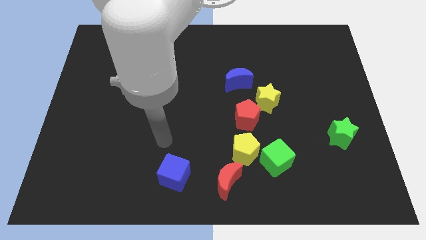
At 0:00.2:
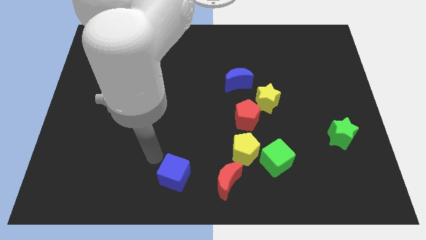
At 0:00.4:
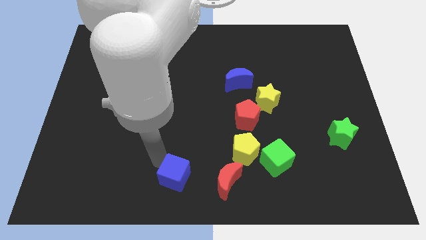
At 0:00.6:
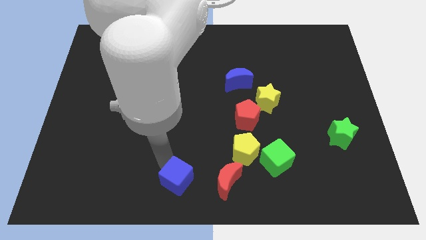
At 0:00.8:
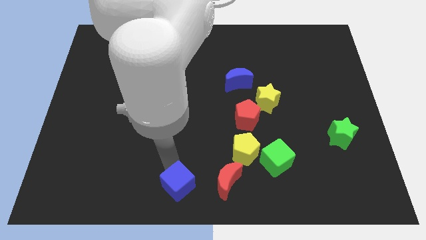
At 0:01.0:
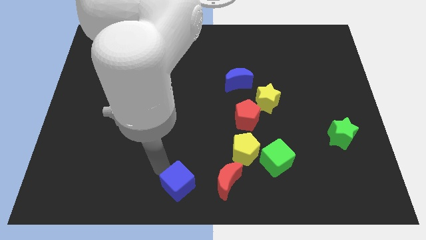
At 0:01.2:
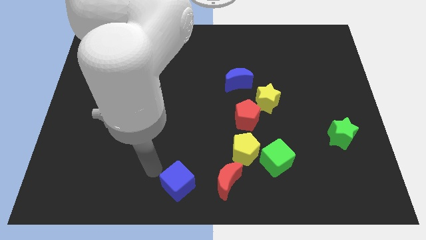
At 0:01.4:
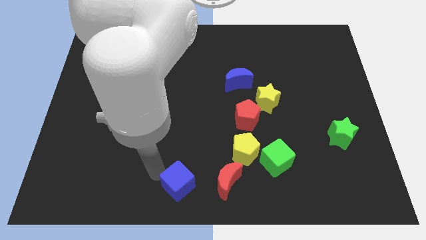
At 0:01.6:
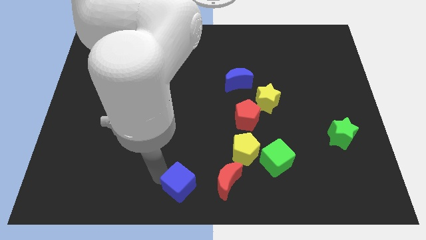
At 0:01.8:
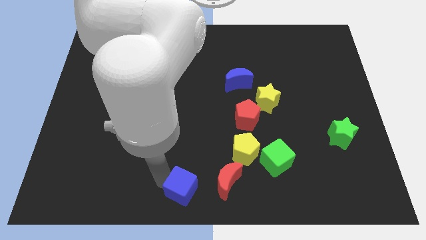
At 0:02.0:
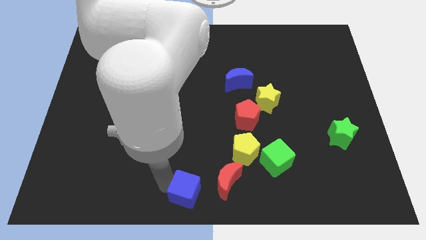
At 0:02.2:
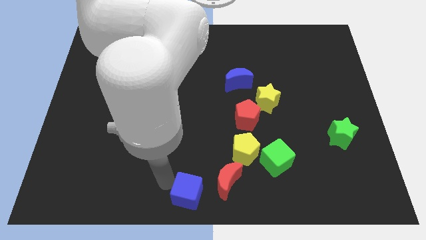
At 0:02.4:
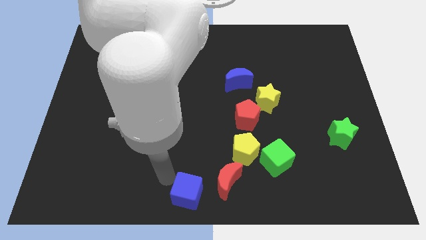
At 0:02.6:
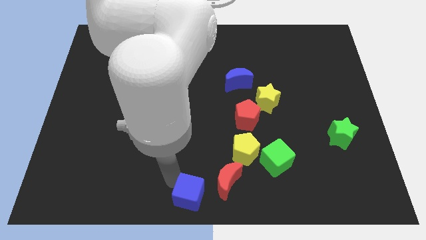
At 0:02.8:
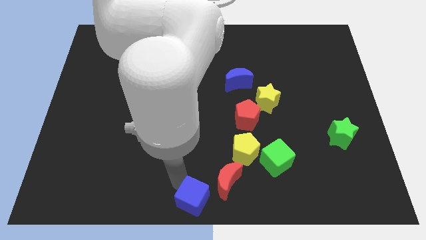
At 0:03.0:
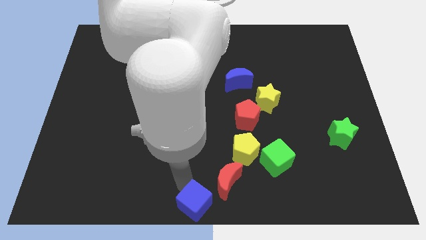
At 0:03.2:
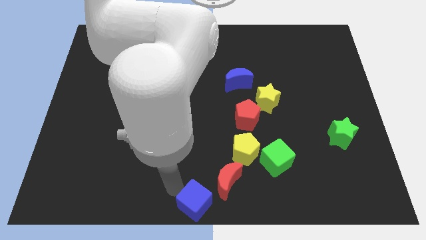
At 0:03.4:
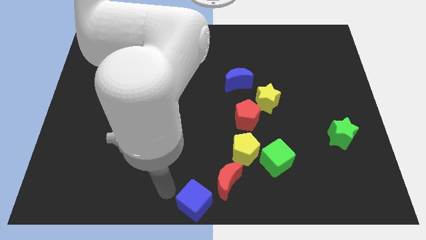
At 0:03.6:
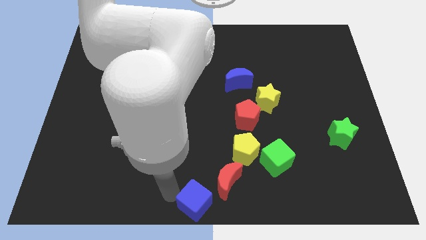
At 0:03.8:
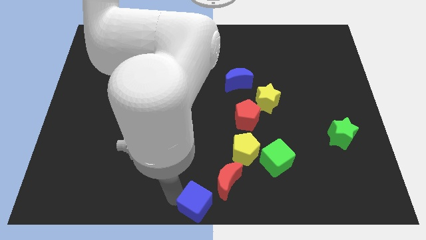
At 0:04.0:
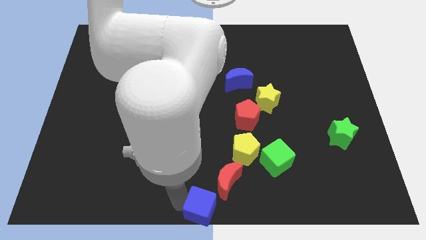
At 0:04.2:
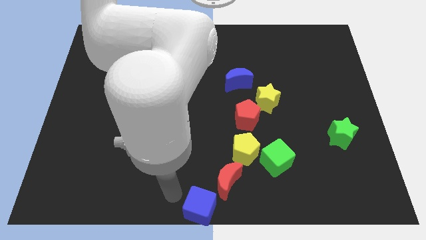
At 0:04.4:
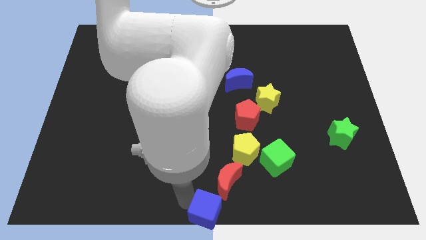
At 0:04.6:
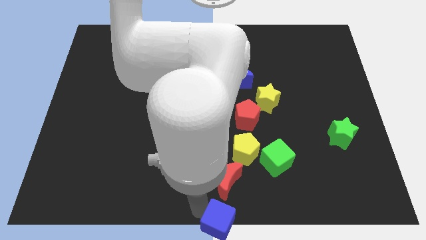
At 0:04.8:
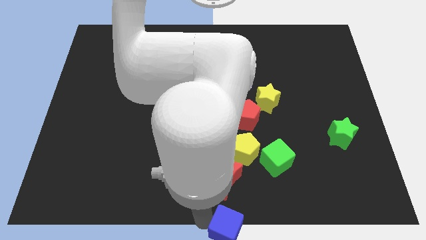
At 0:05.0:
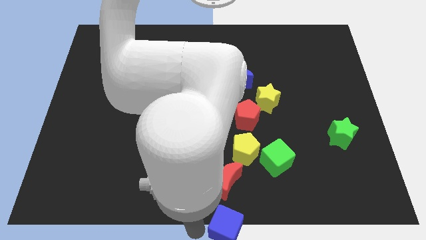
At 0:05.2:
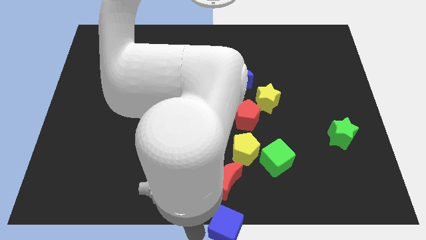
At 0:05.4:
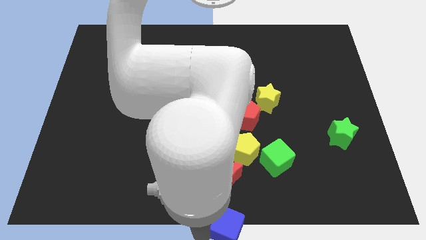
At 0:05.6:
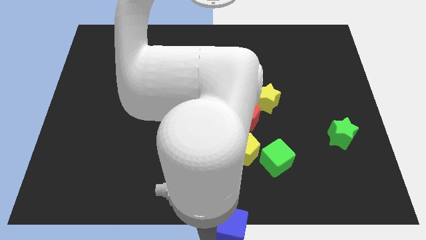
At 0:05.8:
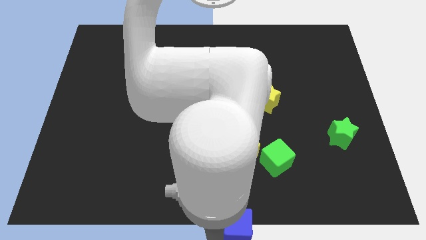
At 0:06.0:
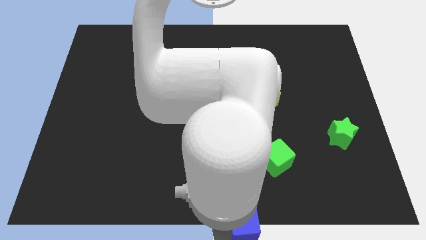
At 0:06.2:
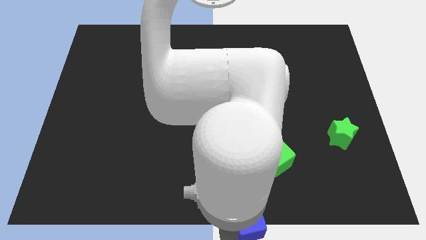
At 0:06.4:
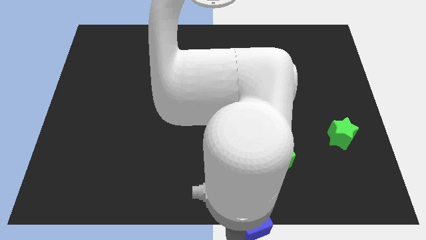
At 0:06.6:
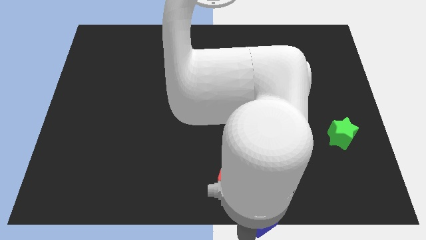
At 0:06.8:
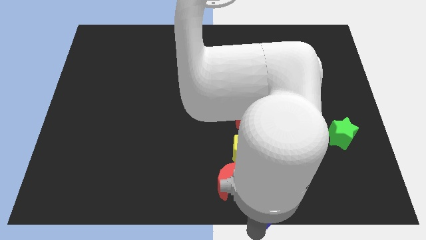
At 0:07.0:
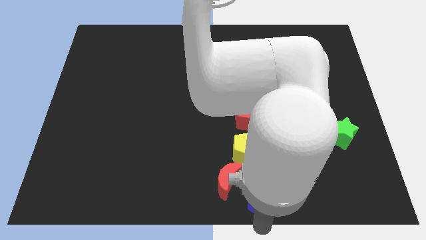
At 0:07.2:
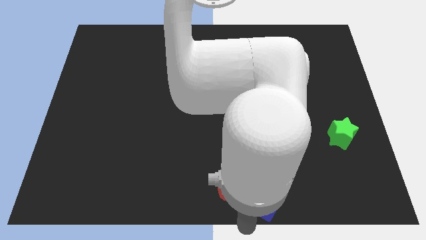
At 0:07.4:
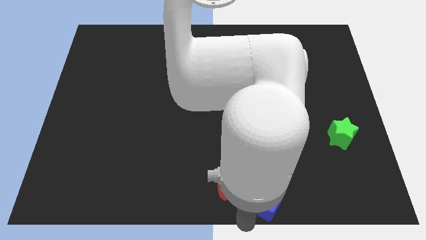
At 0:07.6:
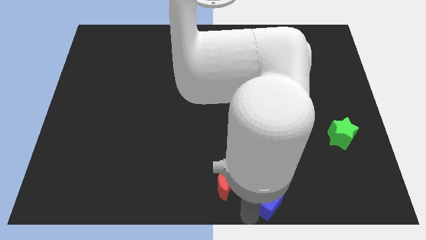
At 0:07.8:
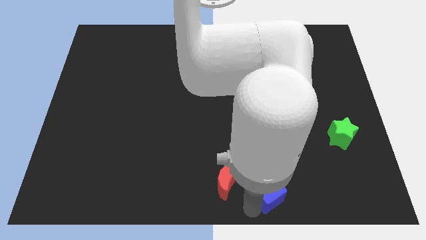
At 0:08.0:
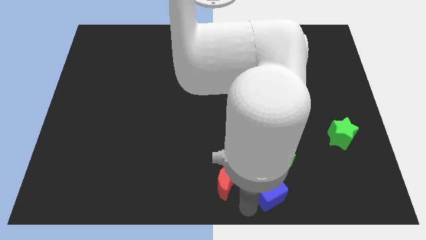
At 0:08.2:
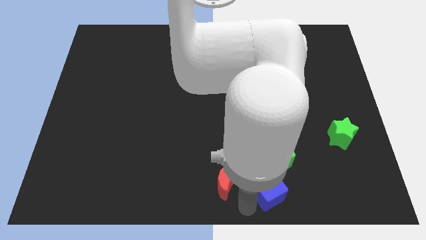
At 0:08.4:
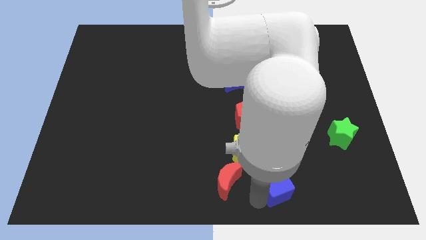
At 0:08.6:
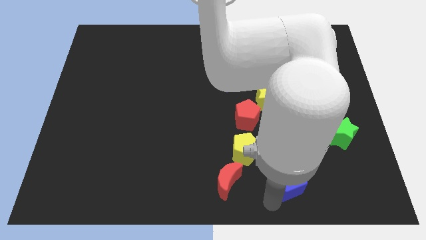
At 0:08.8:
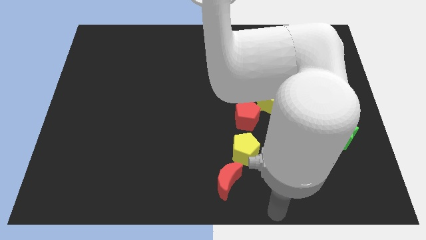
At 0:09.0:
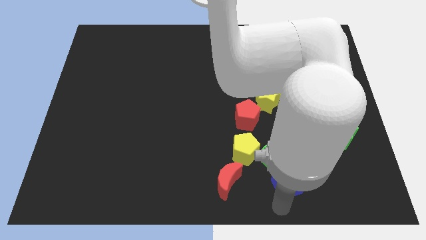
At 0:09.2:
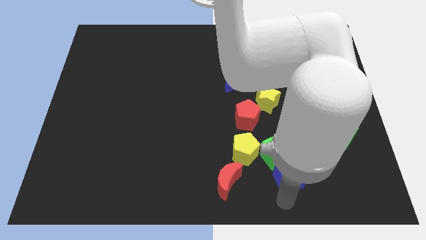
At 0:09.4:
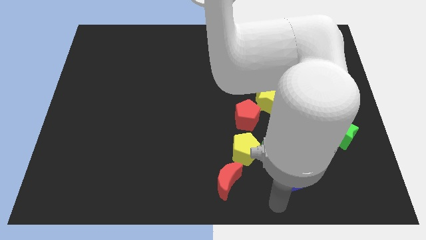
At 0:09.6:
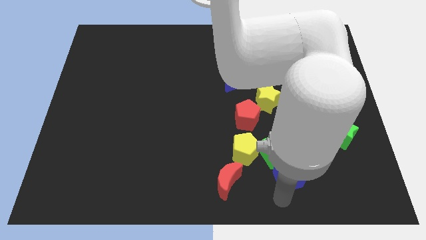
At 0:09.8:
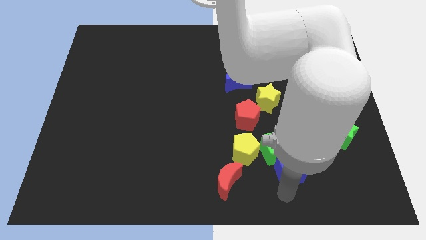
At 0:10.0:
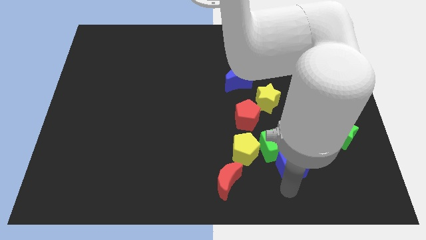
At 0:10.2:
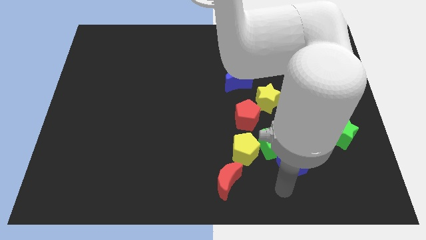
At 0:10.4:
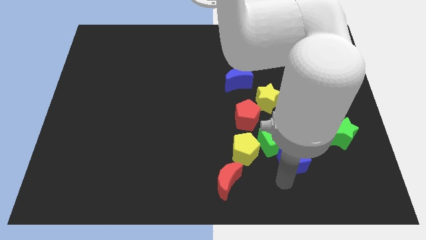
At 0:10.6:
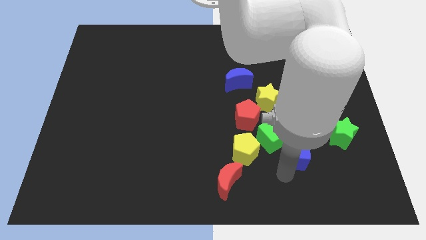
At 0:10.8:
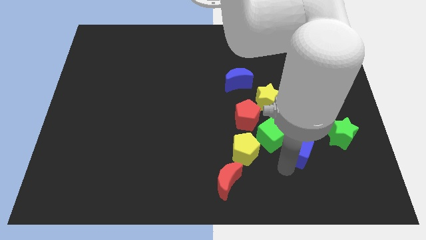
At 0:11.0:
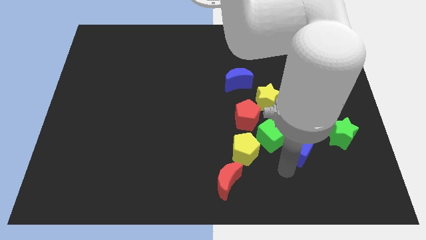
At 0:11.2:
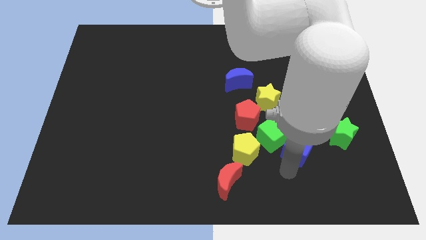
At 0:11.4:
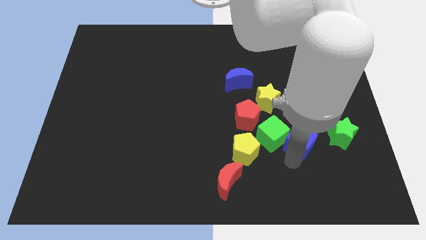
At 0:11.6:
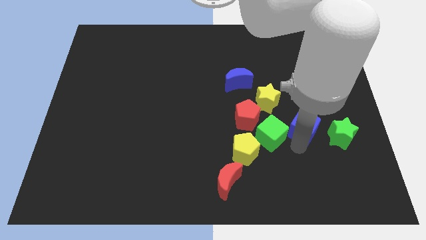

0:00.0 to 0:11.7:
put the blue cube to the top left of the green star

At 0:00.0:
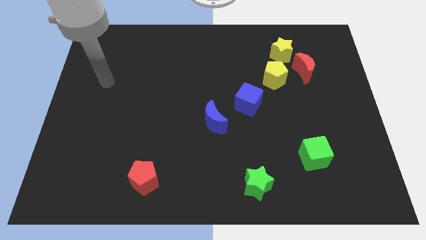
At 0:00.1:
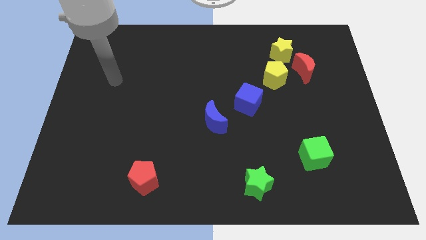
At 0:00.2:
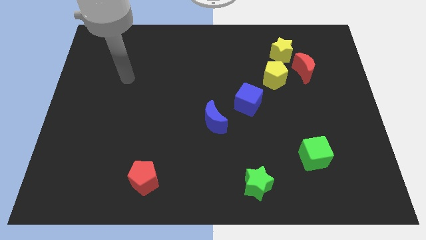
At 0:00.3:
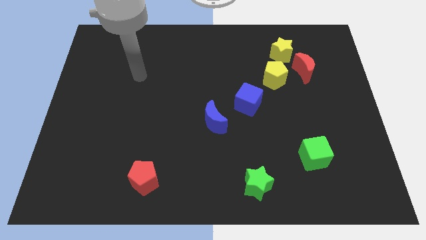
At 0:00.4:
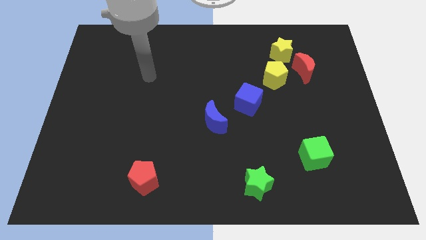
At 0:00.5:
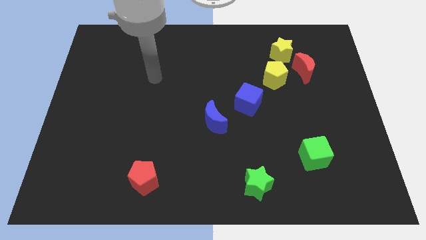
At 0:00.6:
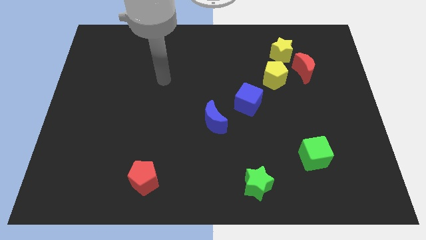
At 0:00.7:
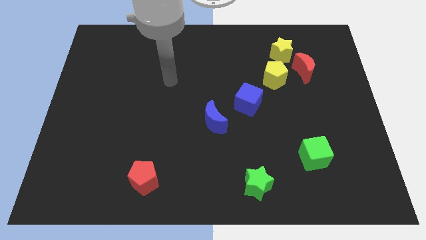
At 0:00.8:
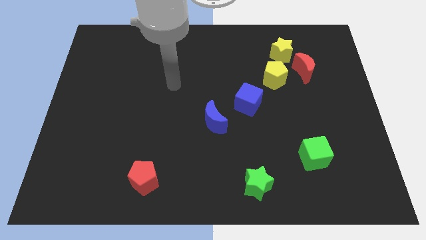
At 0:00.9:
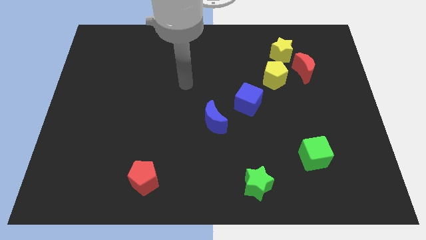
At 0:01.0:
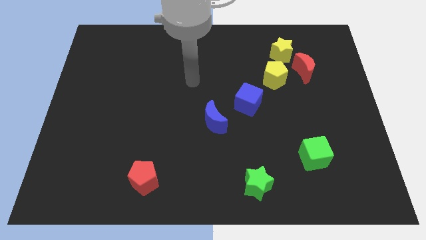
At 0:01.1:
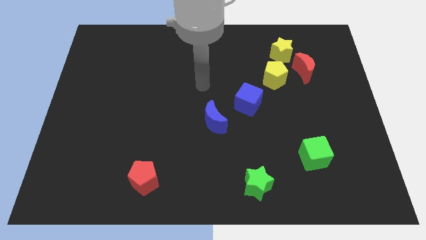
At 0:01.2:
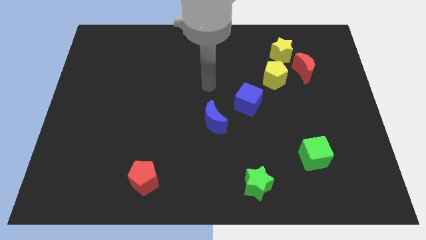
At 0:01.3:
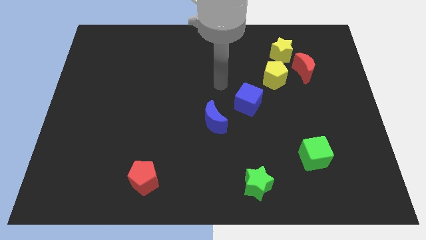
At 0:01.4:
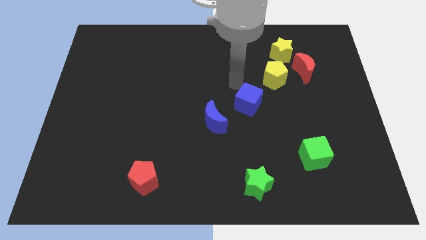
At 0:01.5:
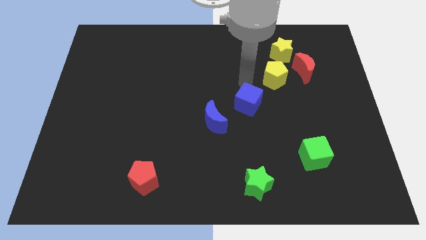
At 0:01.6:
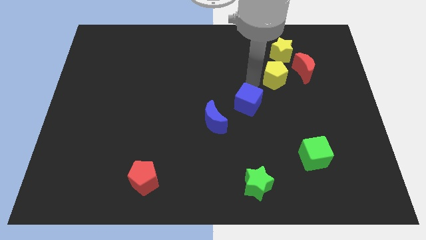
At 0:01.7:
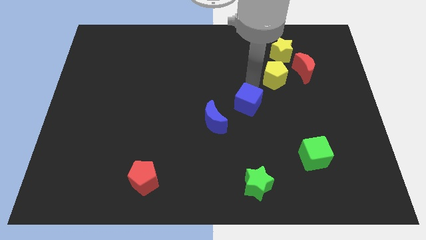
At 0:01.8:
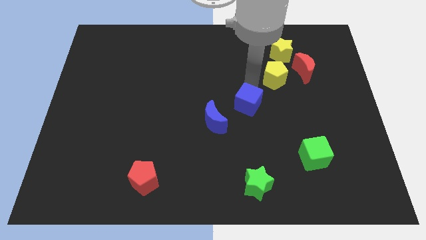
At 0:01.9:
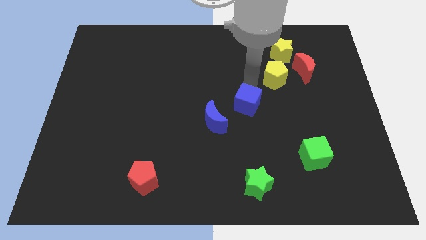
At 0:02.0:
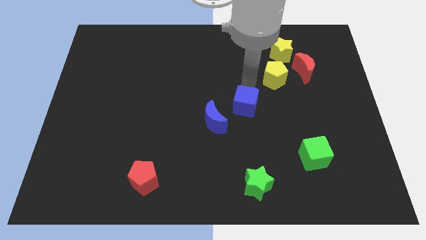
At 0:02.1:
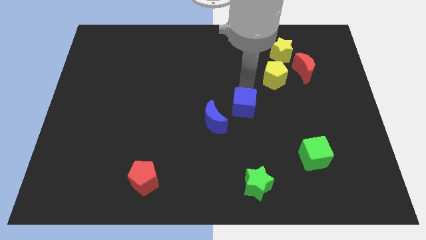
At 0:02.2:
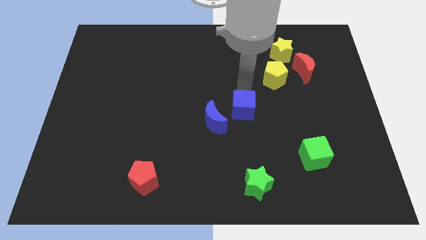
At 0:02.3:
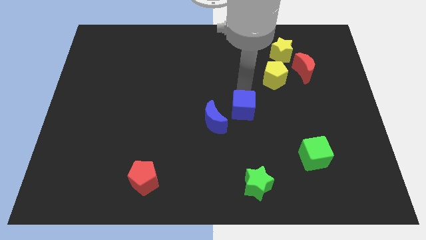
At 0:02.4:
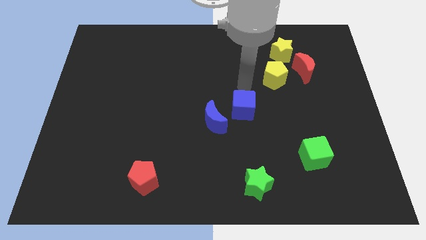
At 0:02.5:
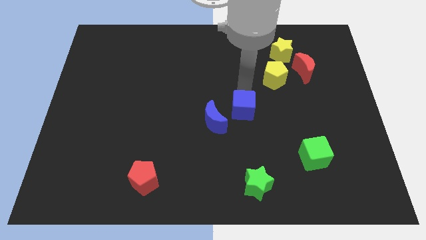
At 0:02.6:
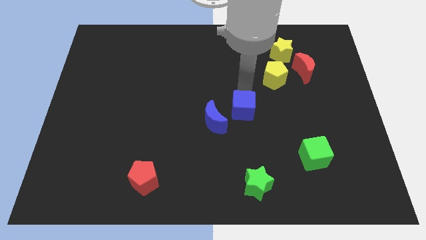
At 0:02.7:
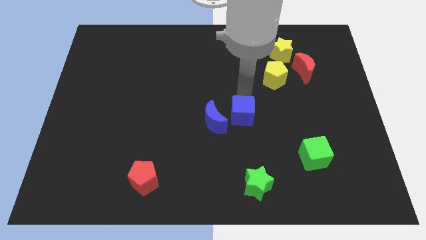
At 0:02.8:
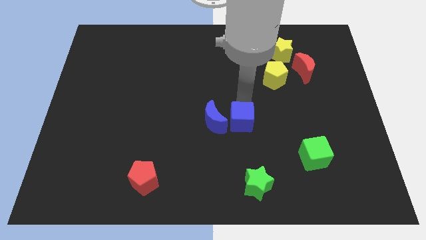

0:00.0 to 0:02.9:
put the blue cube to the bottom right of the blue moon
